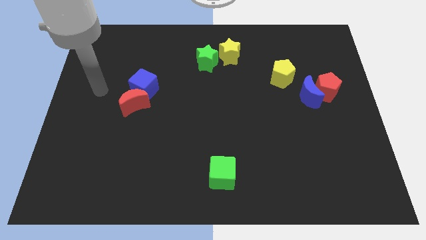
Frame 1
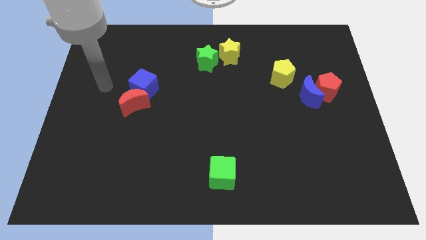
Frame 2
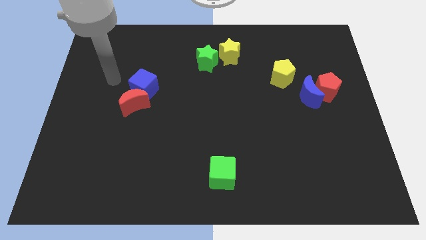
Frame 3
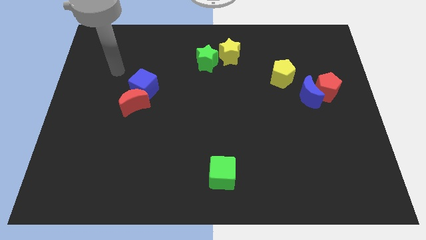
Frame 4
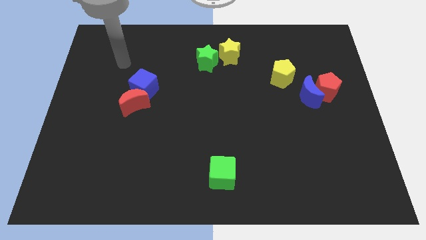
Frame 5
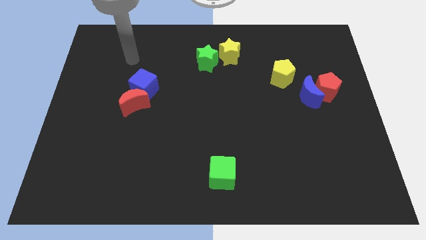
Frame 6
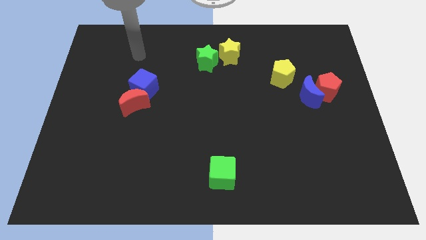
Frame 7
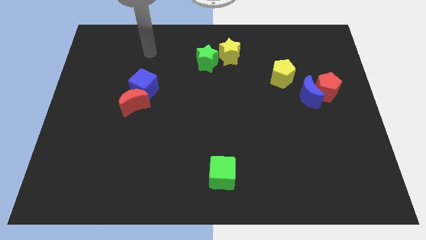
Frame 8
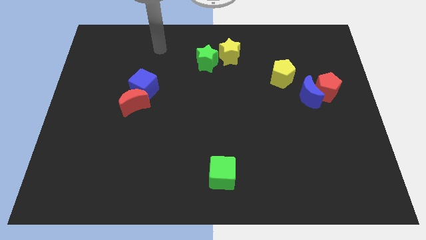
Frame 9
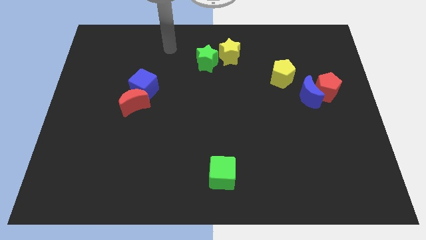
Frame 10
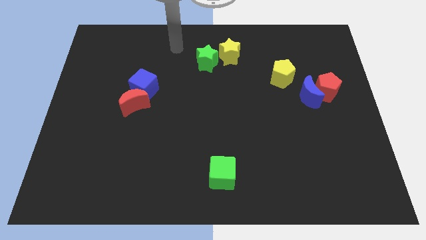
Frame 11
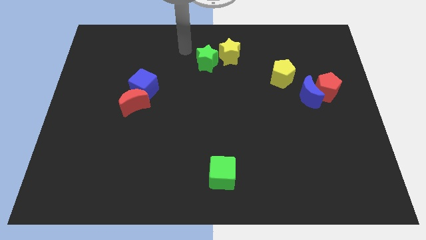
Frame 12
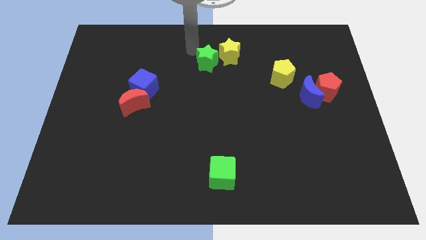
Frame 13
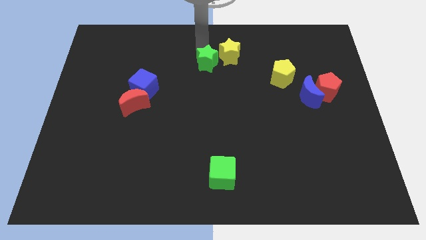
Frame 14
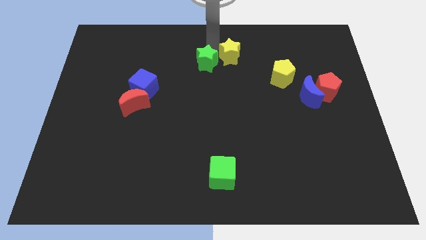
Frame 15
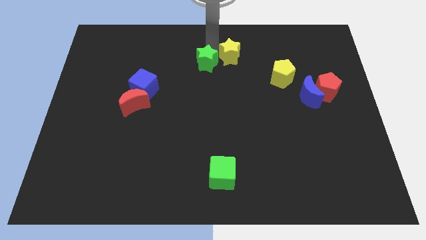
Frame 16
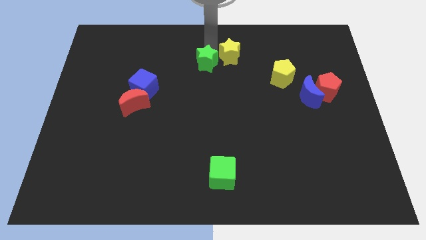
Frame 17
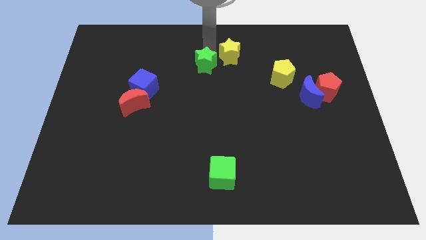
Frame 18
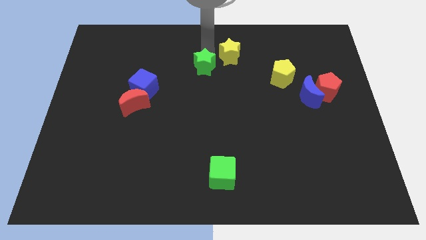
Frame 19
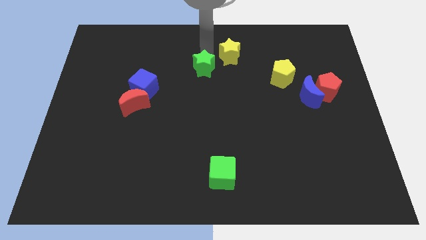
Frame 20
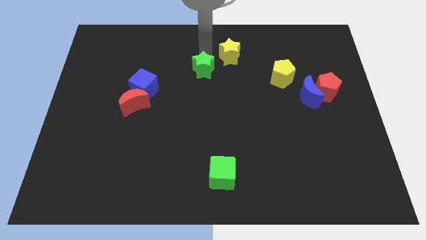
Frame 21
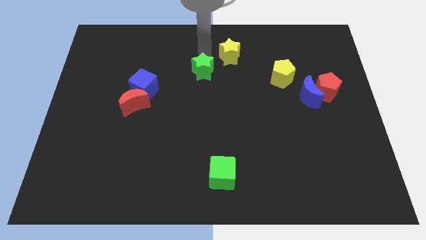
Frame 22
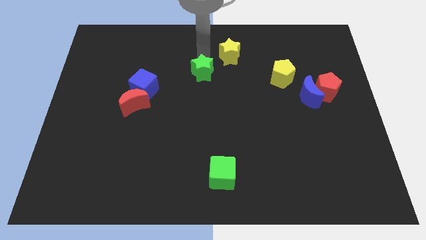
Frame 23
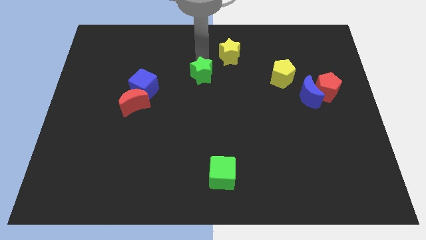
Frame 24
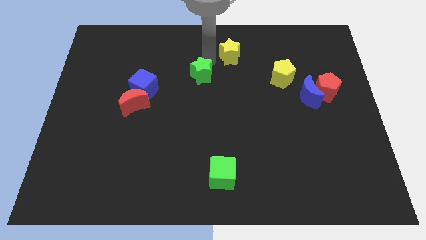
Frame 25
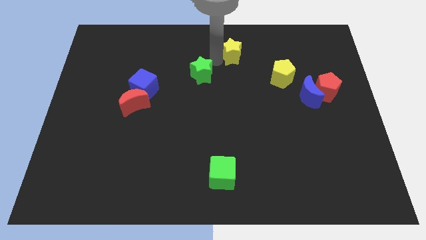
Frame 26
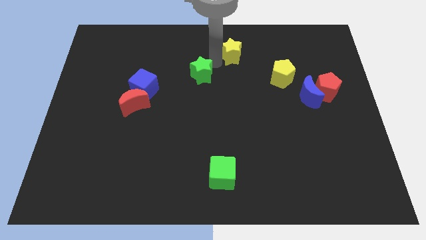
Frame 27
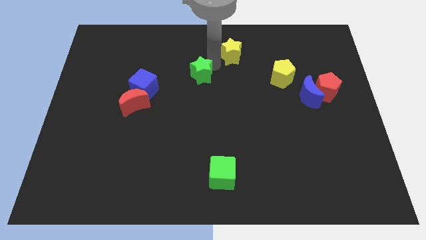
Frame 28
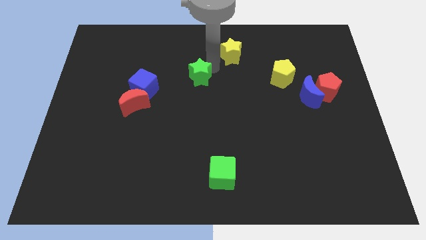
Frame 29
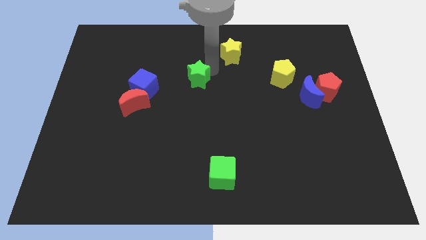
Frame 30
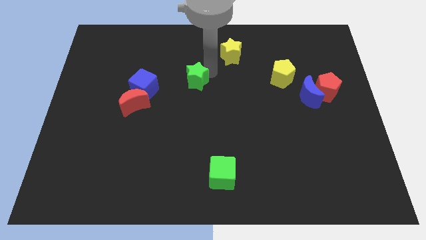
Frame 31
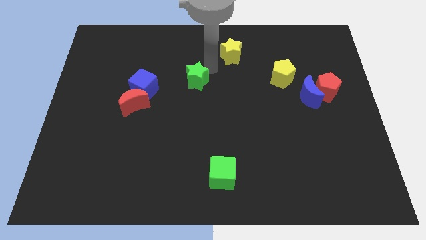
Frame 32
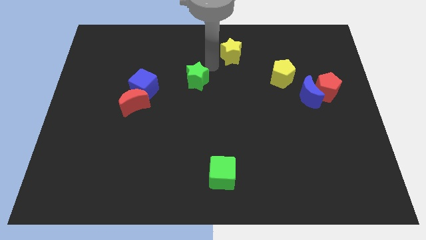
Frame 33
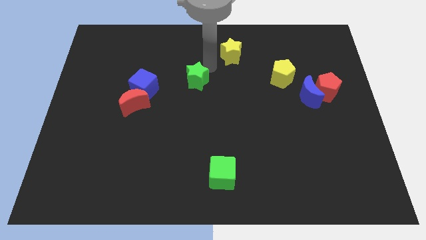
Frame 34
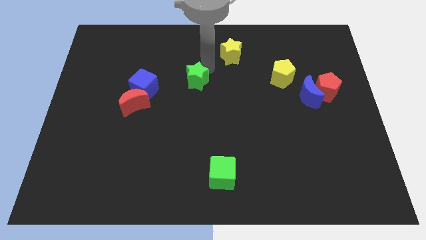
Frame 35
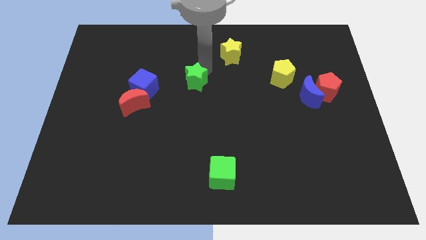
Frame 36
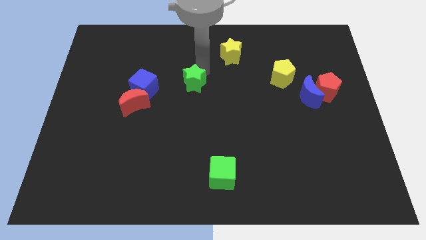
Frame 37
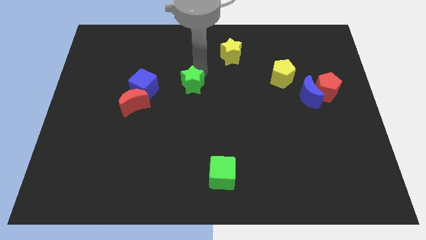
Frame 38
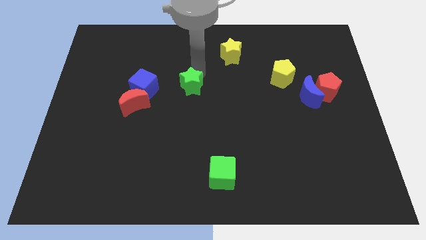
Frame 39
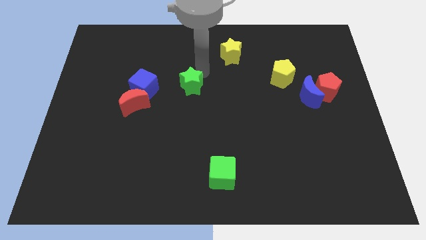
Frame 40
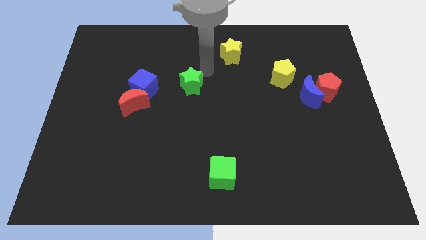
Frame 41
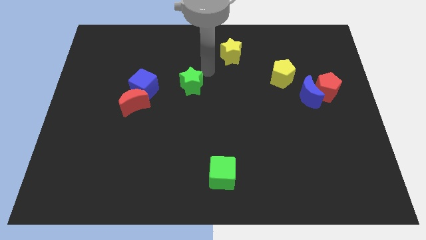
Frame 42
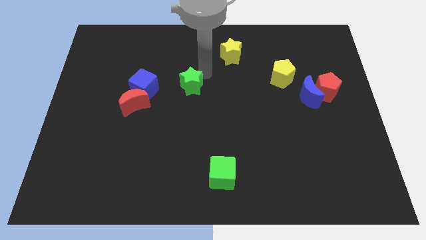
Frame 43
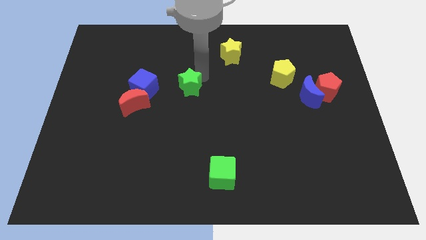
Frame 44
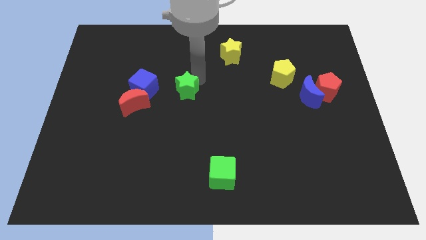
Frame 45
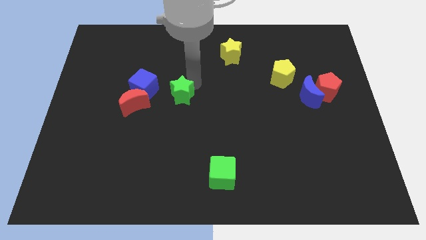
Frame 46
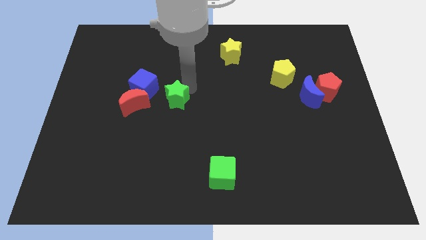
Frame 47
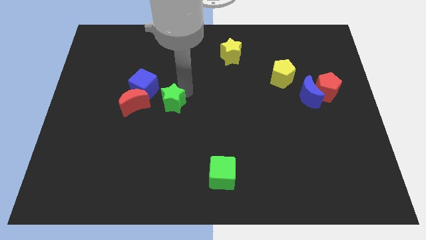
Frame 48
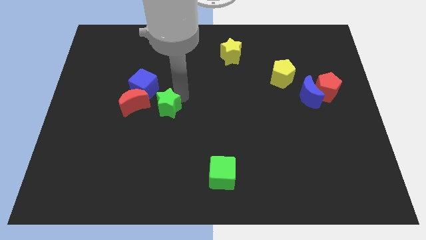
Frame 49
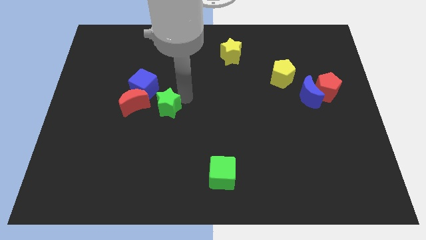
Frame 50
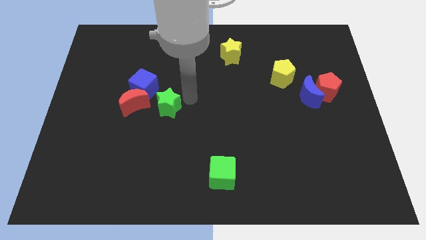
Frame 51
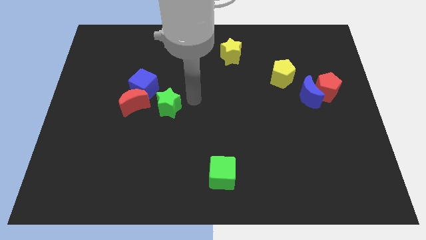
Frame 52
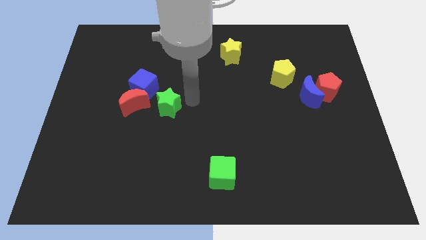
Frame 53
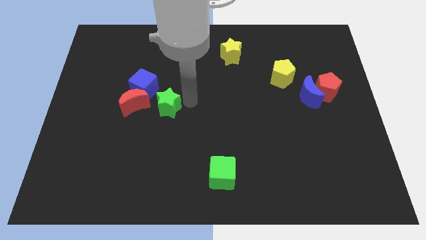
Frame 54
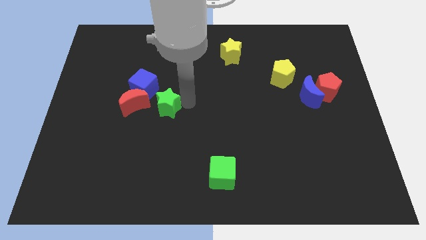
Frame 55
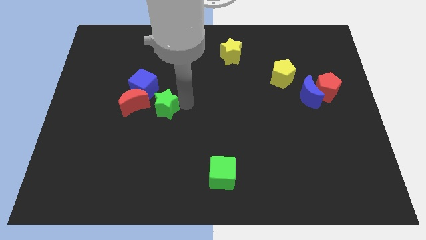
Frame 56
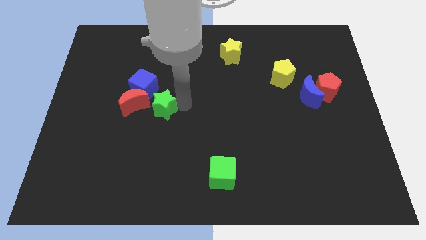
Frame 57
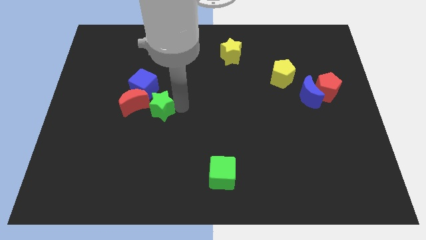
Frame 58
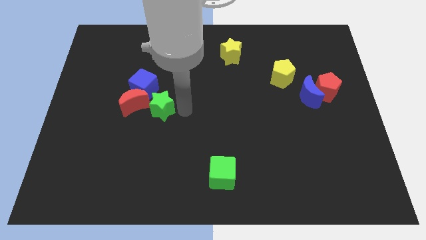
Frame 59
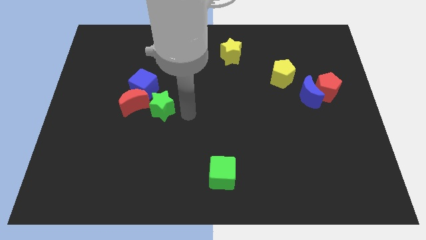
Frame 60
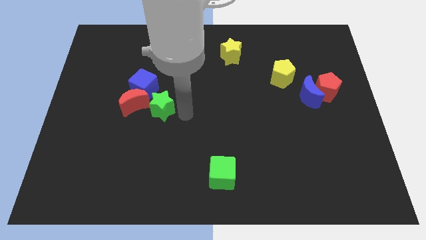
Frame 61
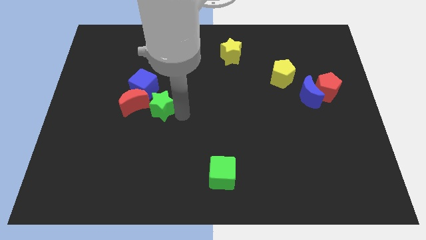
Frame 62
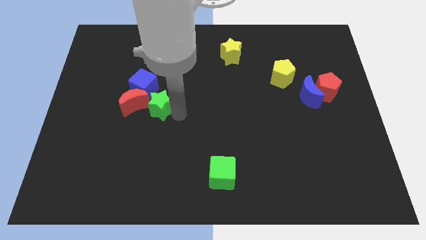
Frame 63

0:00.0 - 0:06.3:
put the green star to the red moon

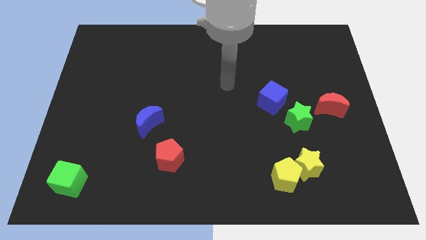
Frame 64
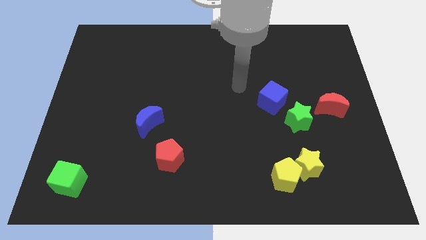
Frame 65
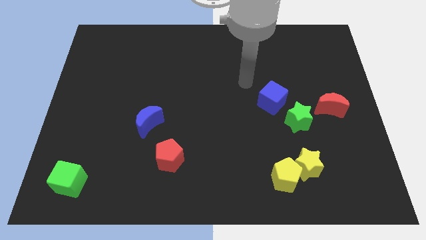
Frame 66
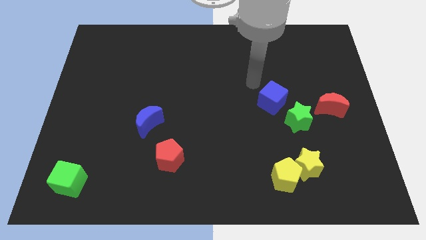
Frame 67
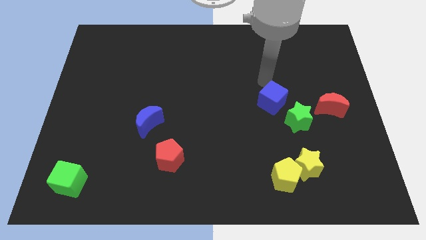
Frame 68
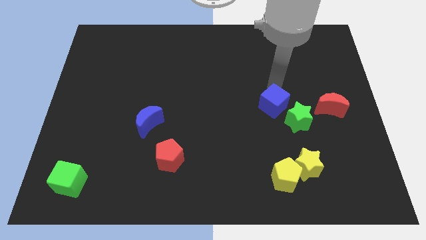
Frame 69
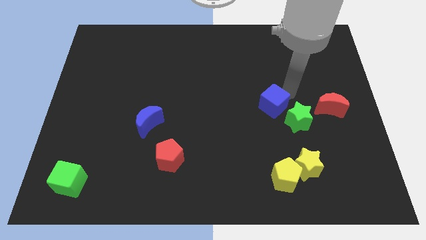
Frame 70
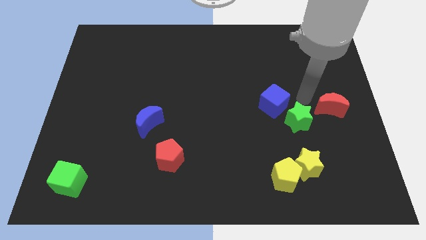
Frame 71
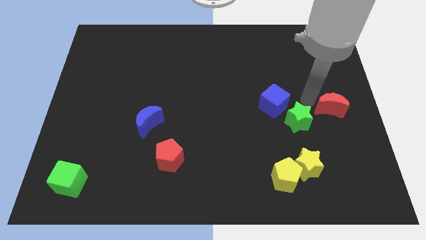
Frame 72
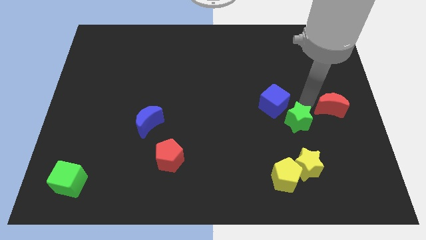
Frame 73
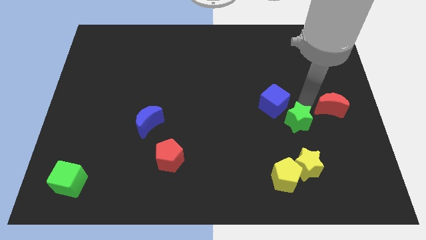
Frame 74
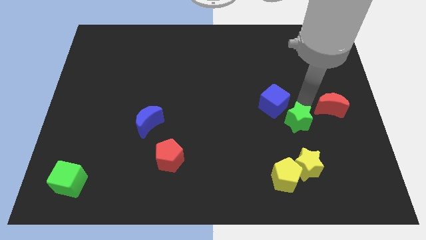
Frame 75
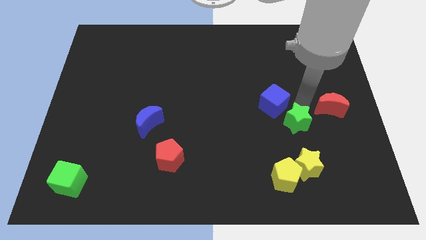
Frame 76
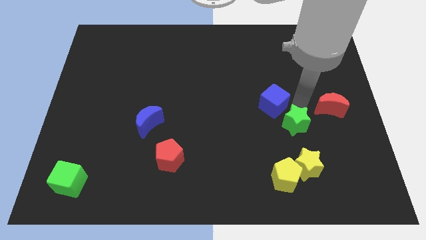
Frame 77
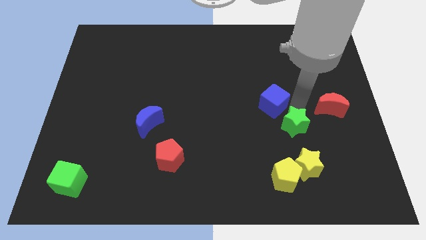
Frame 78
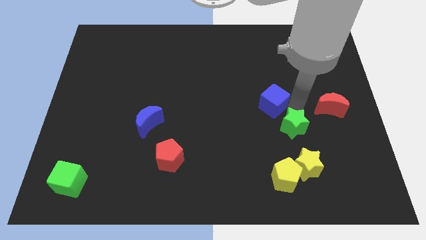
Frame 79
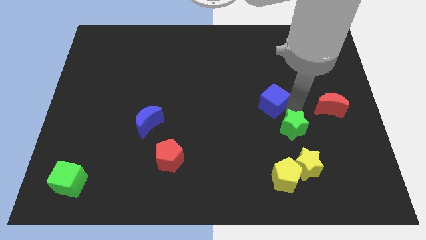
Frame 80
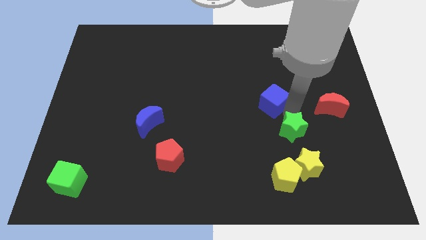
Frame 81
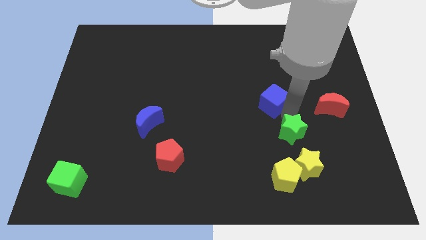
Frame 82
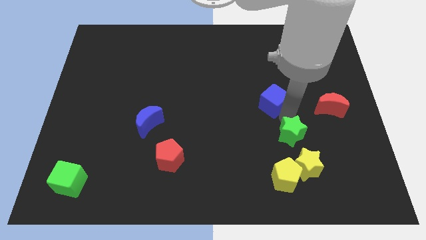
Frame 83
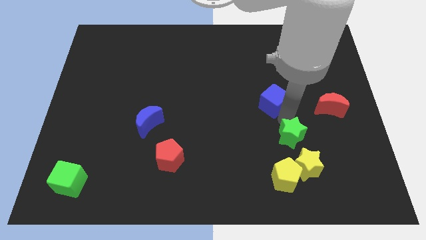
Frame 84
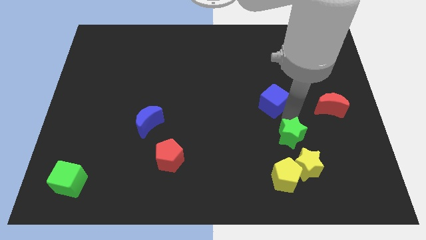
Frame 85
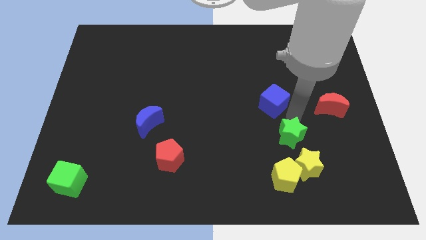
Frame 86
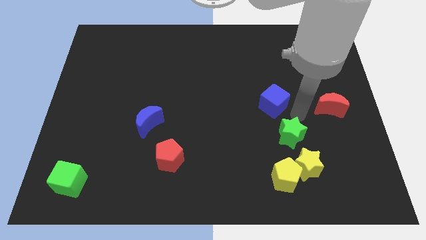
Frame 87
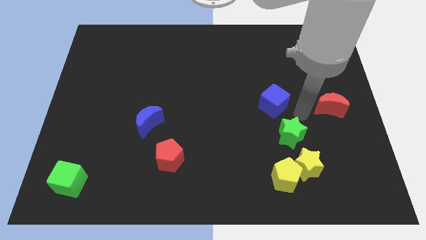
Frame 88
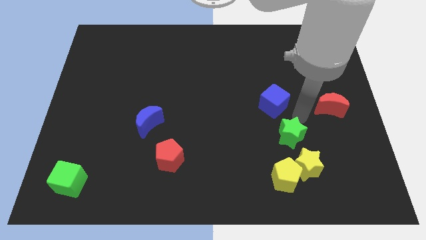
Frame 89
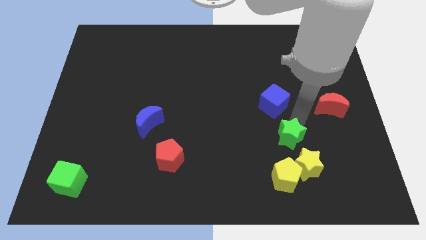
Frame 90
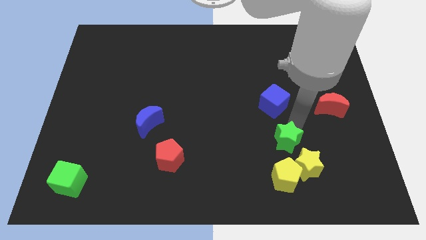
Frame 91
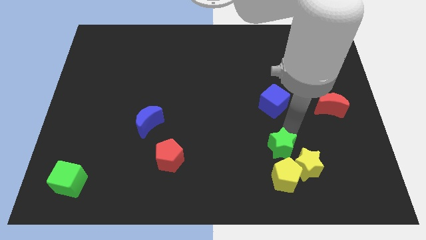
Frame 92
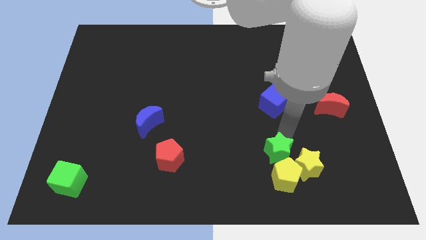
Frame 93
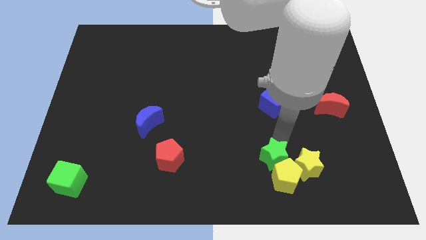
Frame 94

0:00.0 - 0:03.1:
put the green star towards the yellow pentagon
